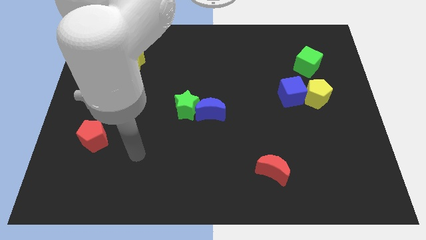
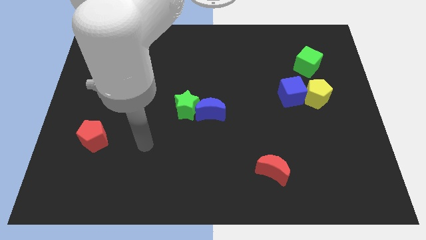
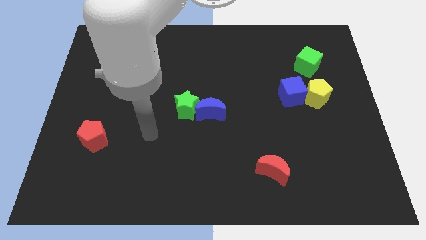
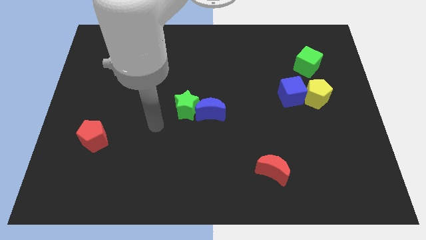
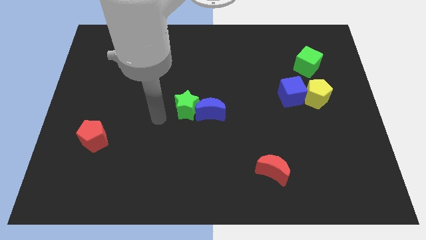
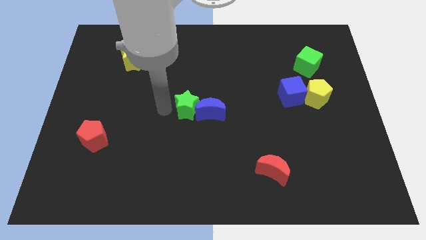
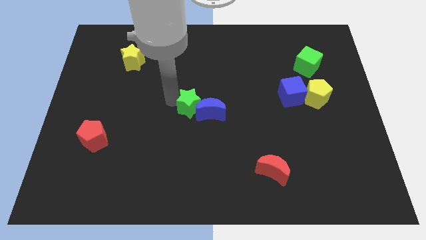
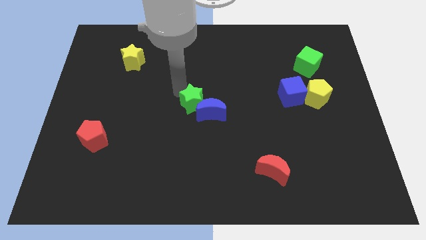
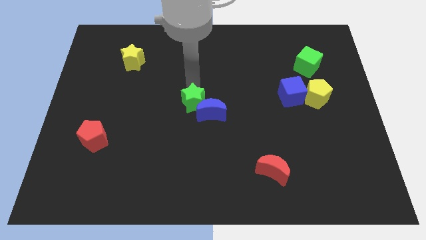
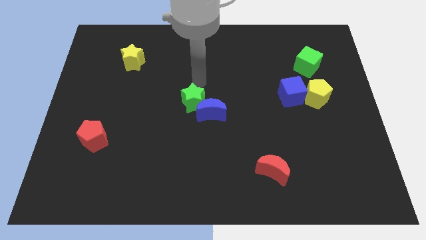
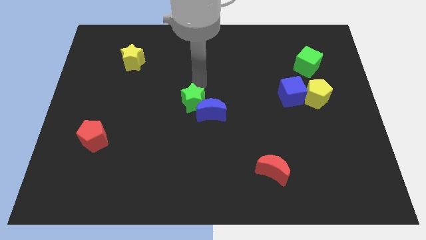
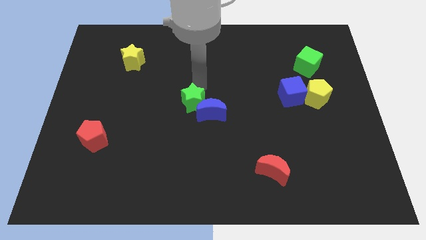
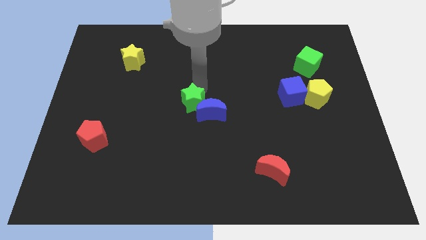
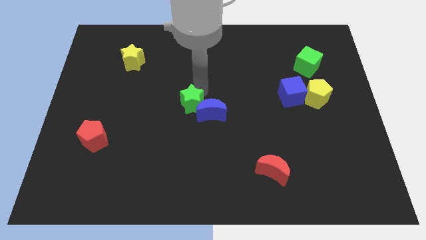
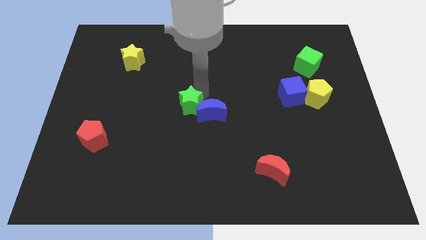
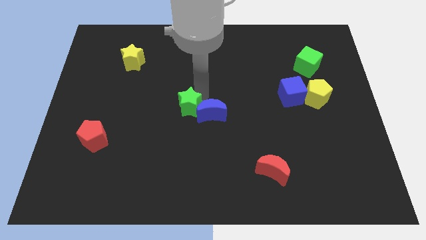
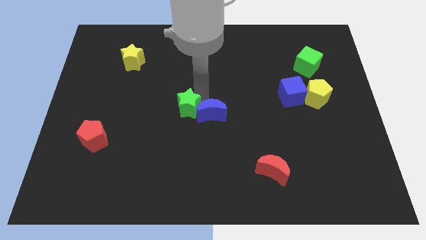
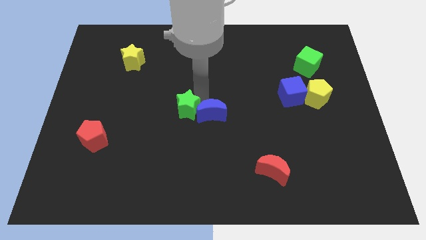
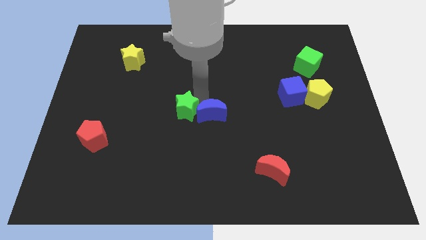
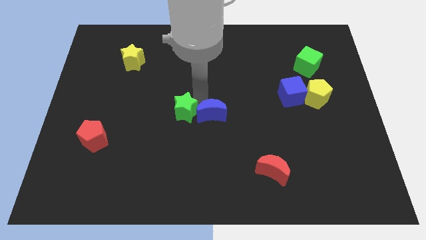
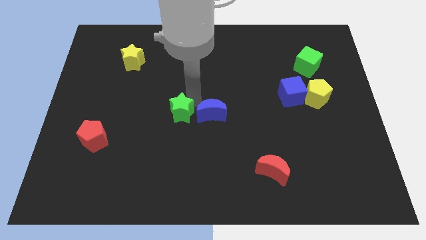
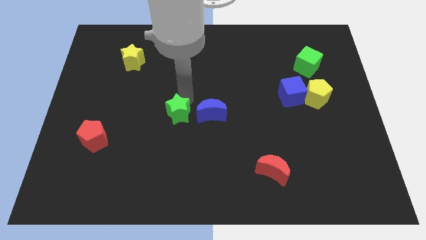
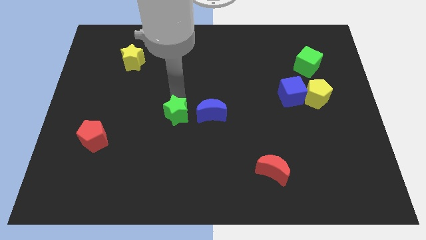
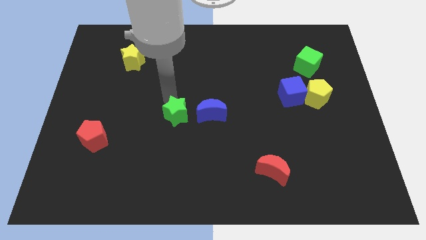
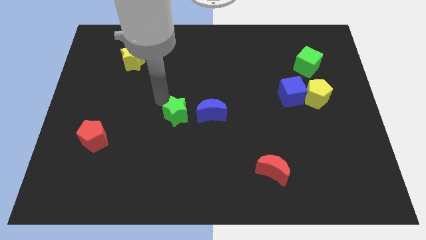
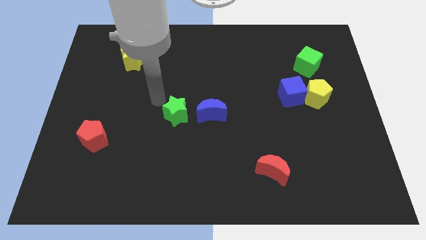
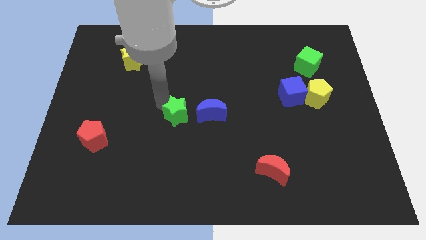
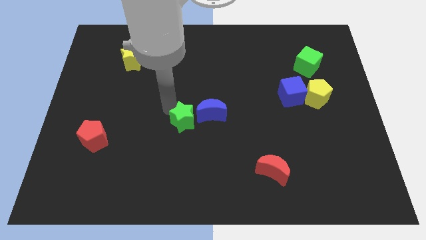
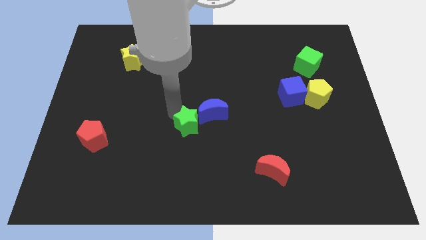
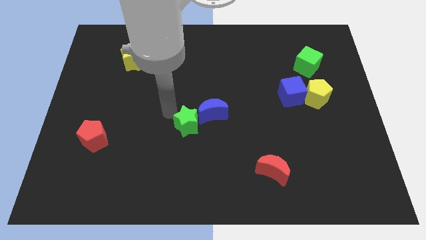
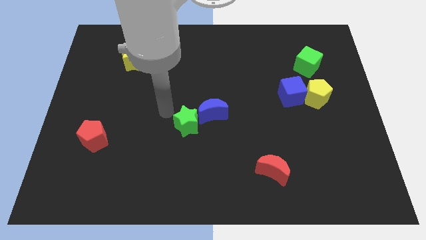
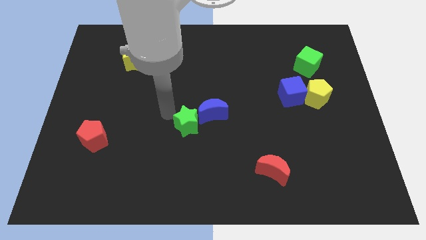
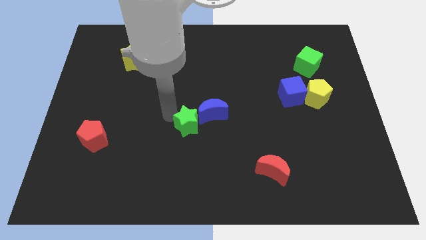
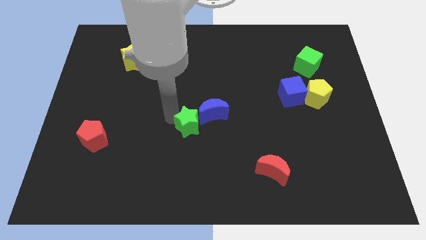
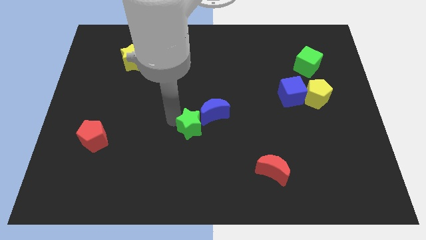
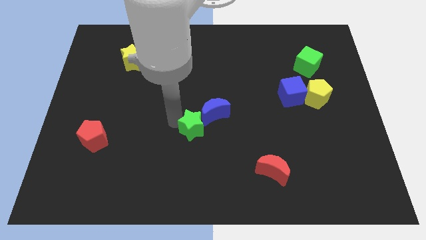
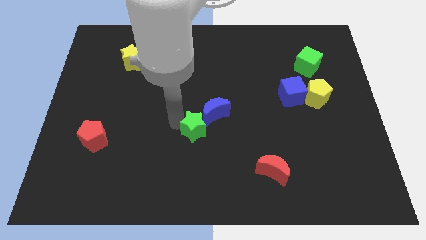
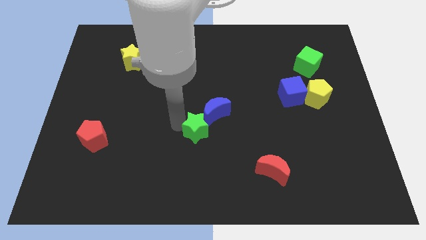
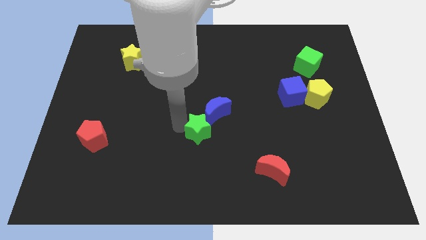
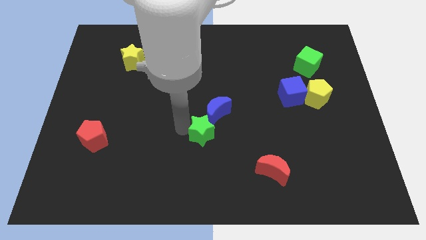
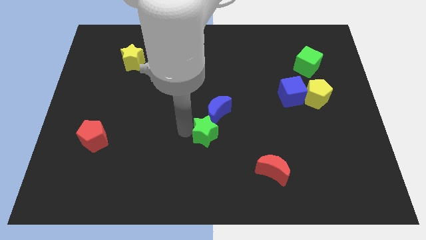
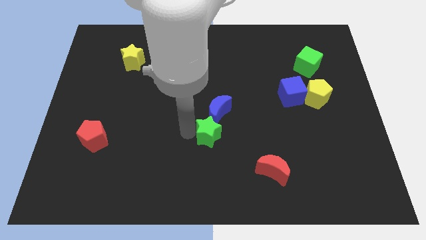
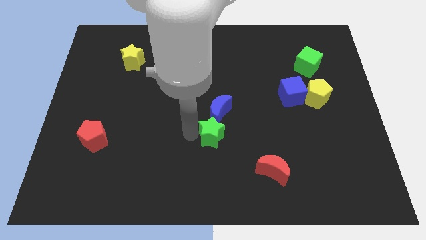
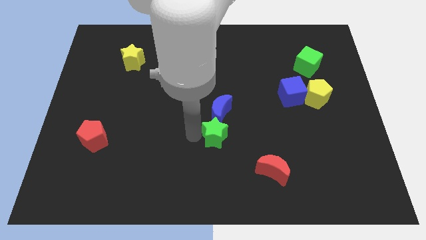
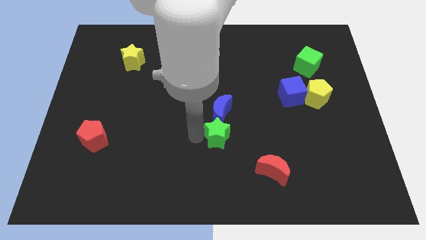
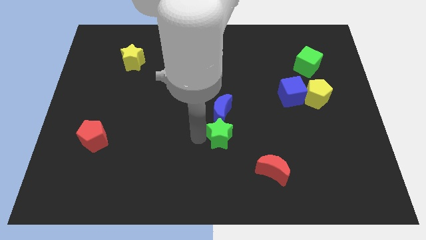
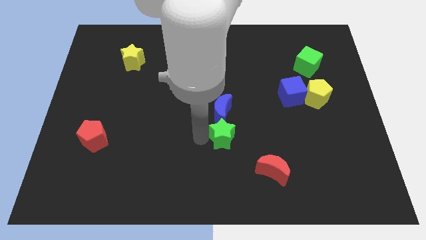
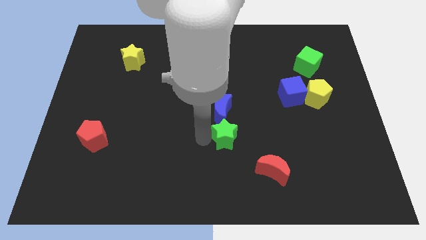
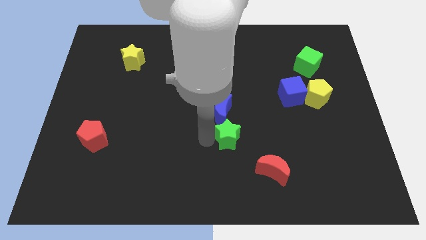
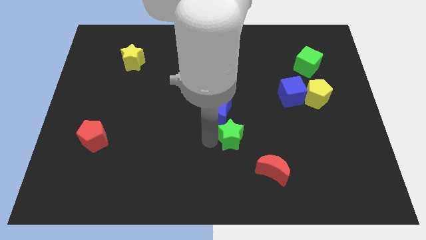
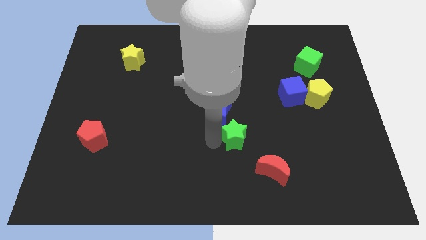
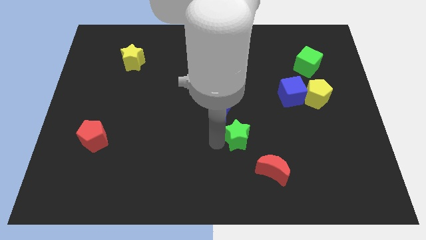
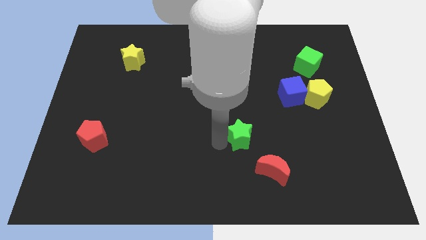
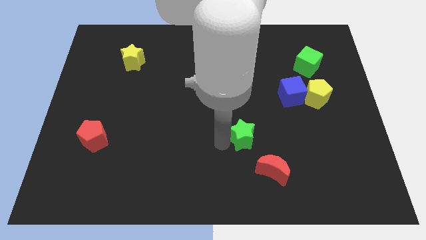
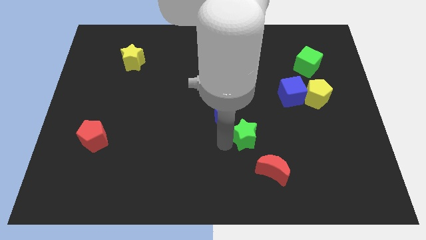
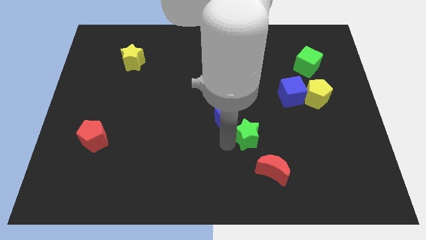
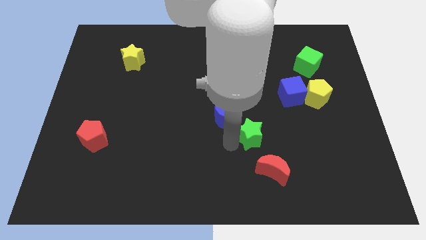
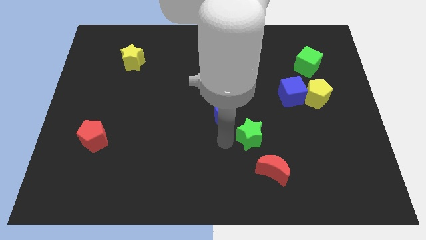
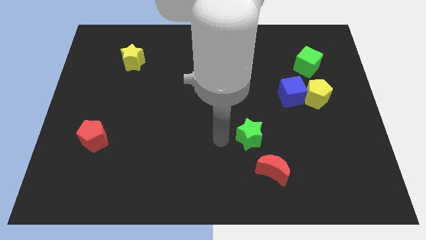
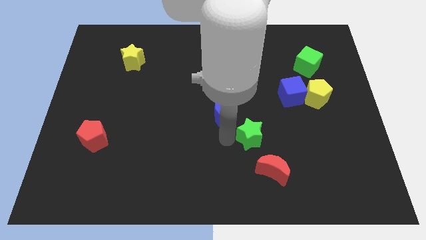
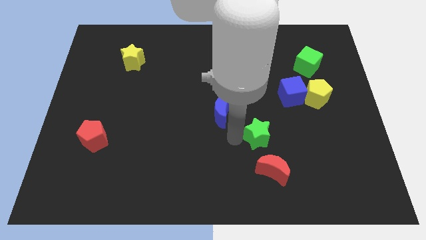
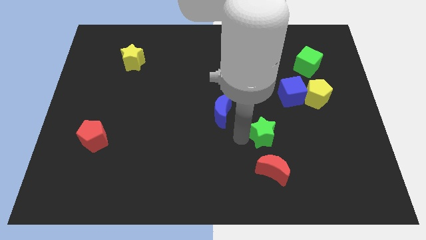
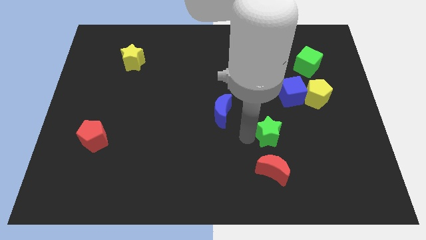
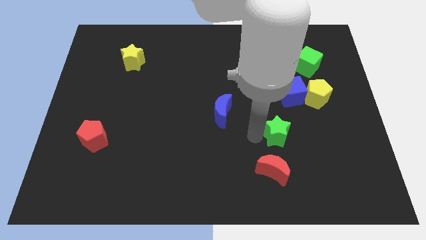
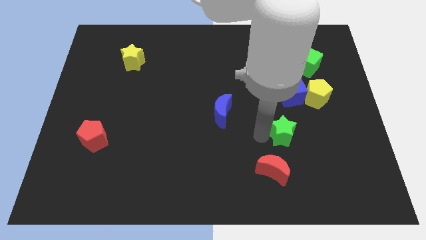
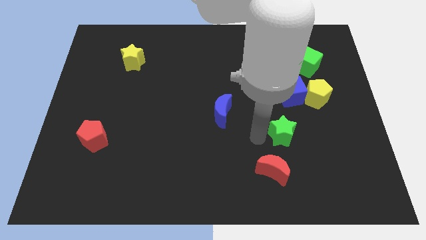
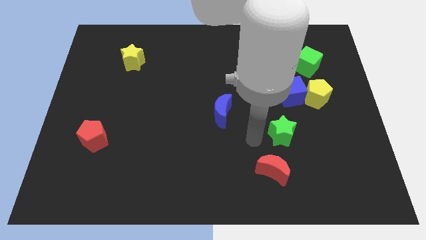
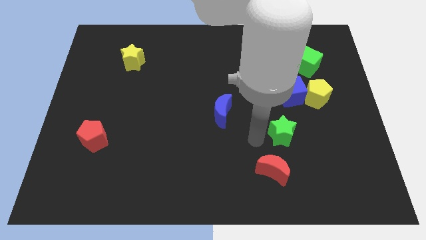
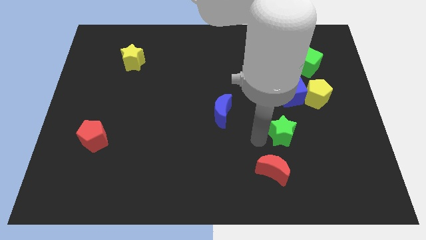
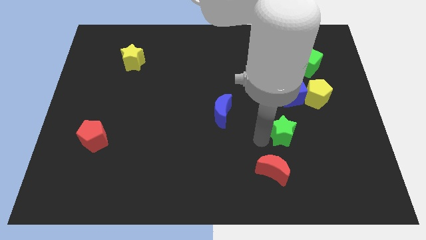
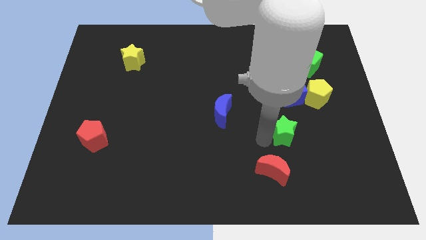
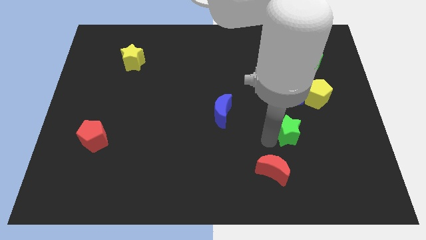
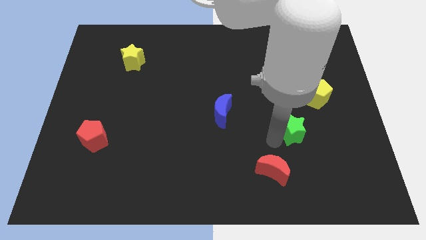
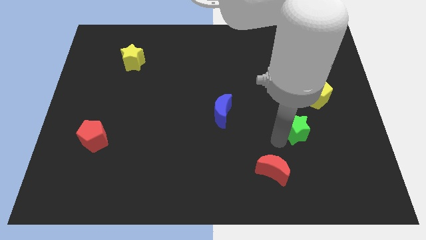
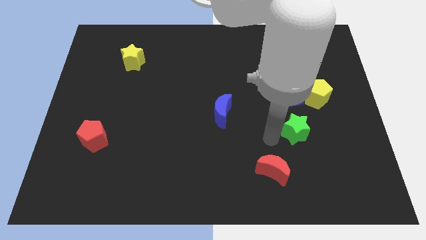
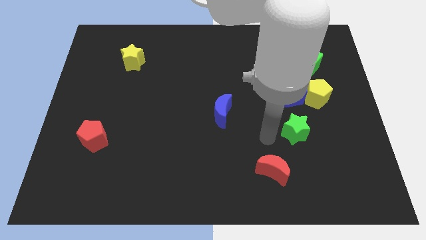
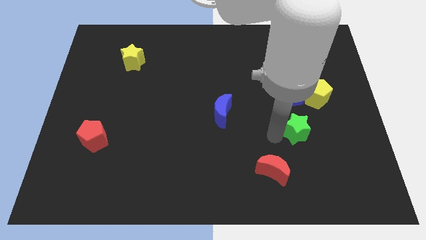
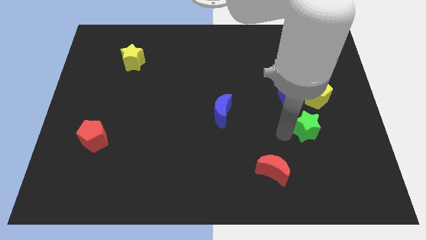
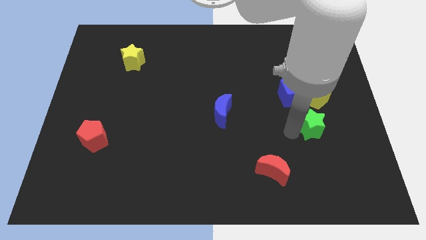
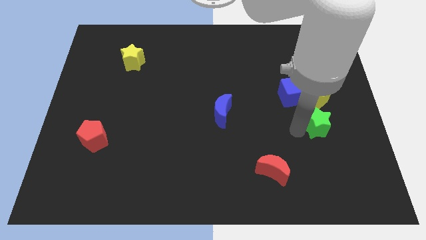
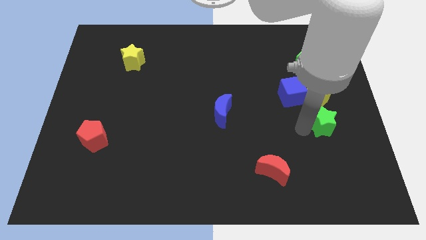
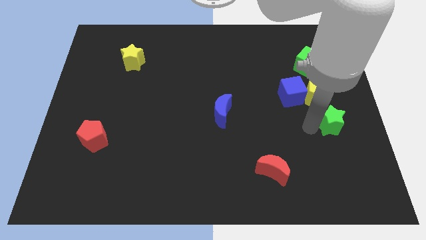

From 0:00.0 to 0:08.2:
slide the green star to the center right
